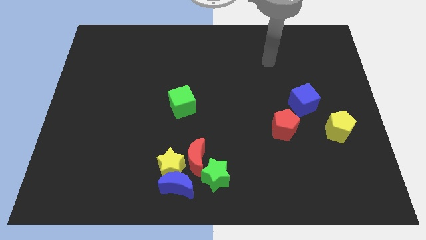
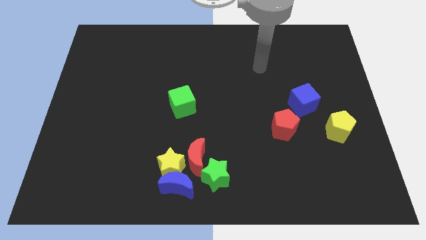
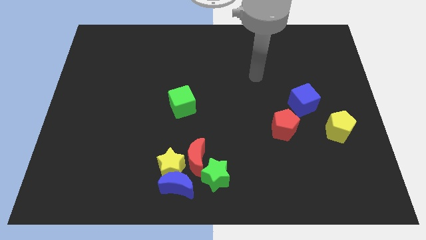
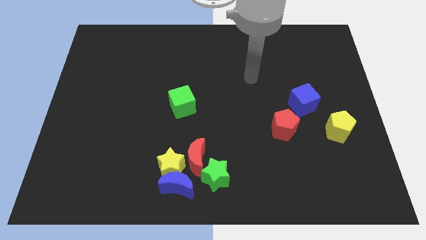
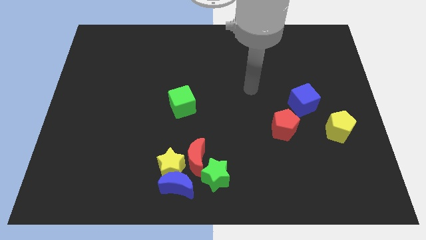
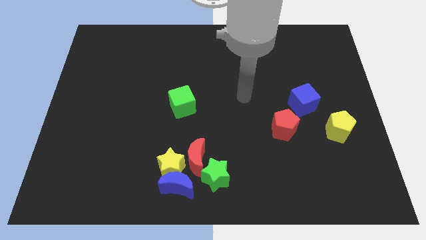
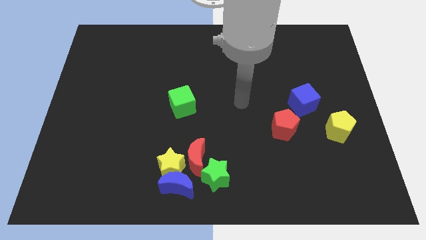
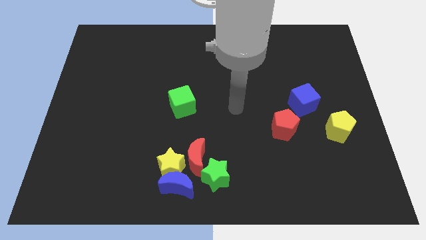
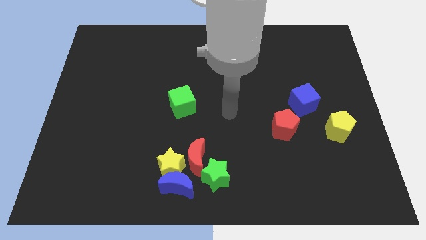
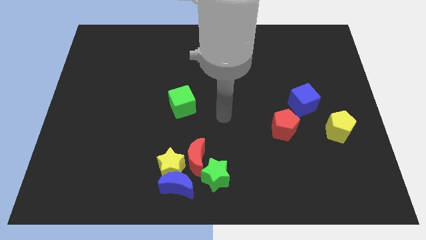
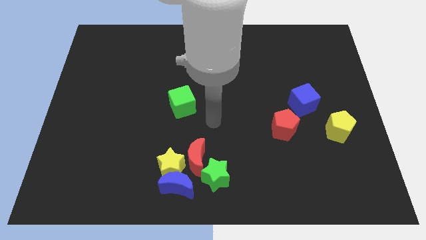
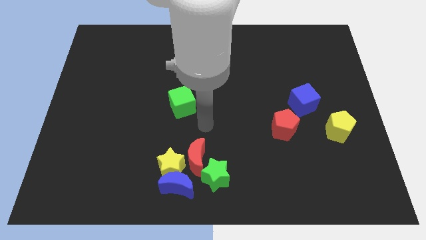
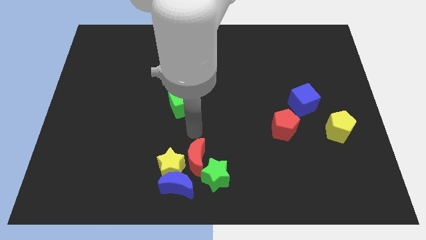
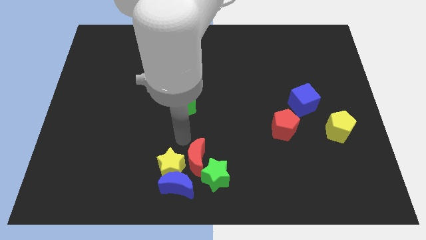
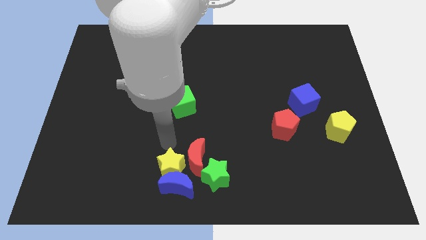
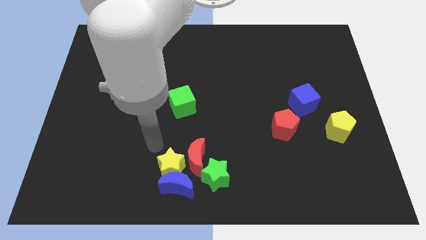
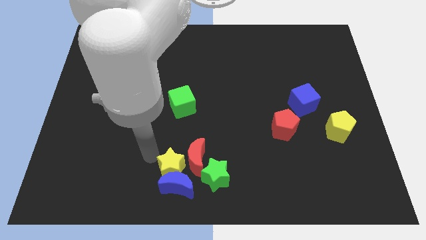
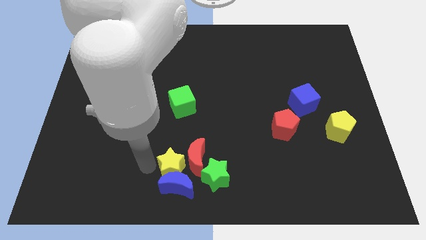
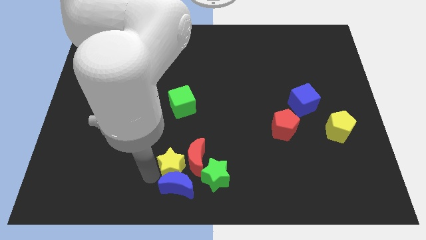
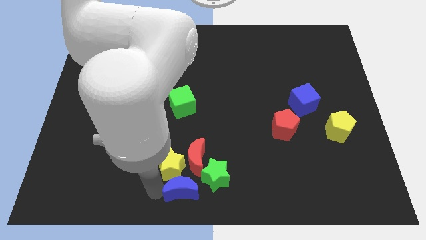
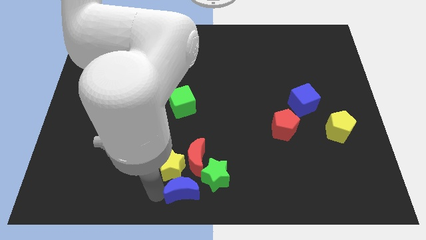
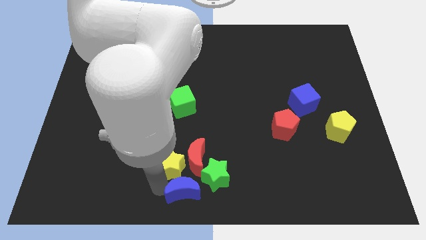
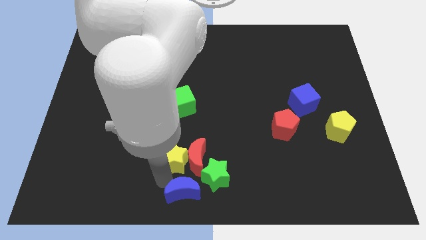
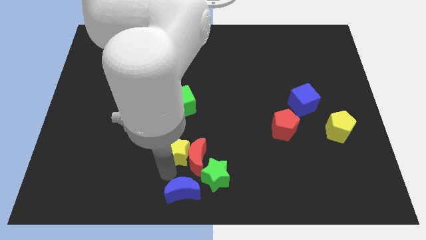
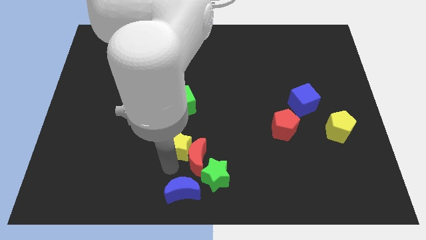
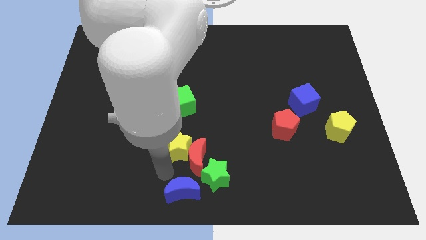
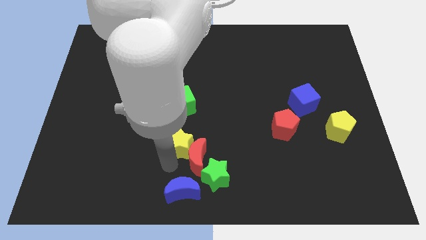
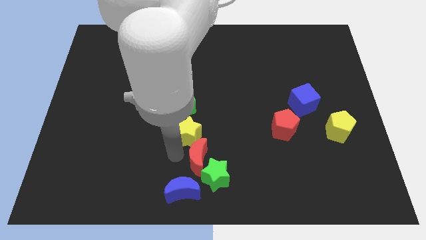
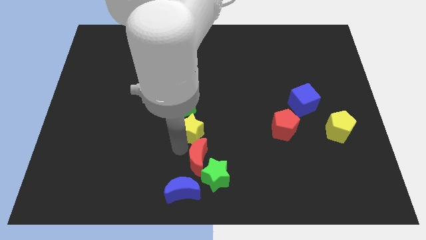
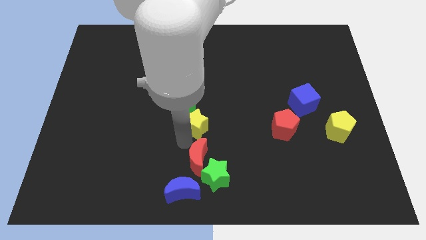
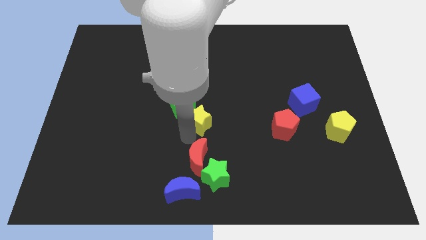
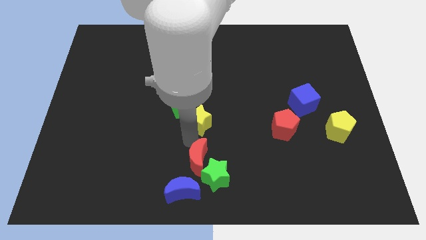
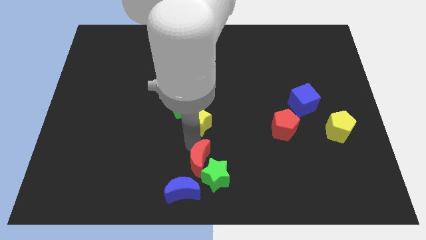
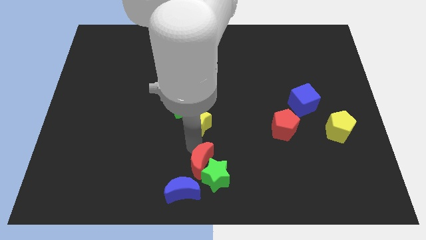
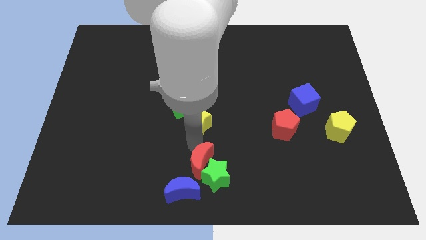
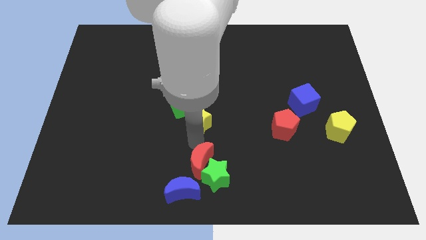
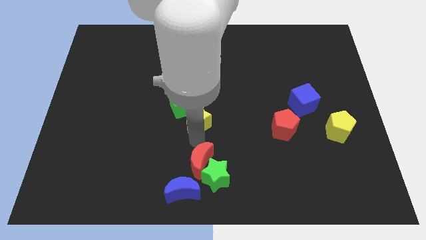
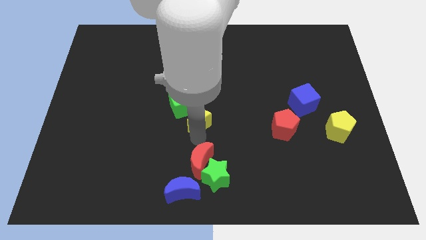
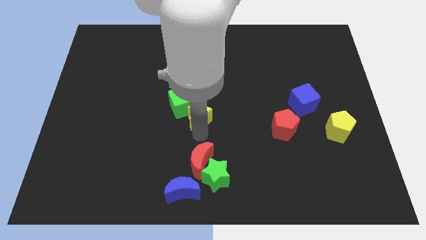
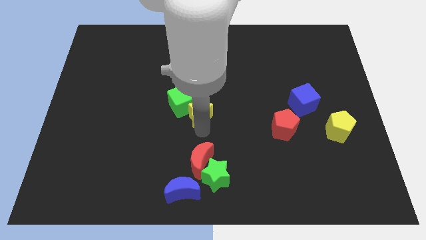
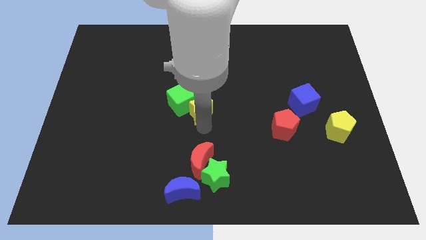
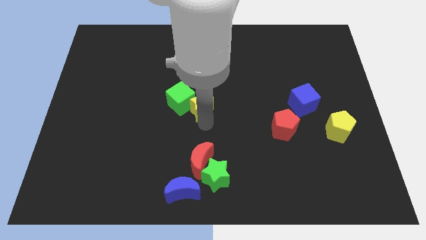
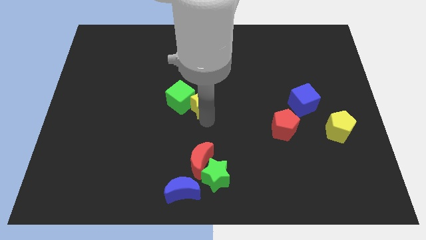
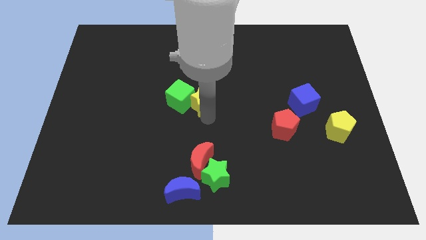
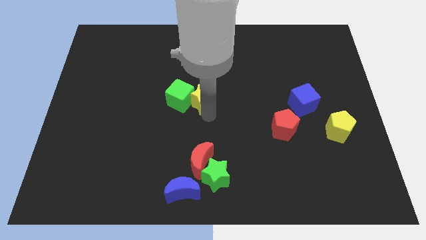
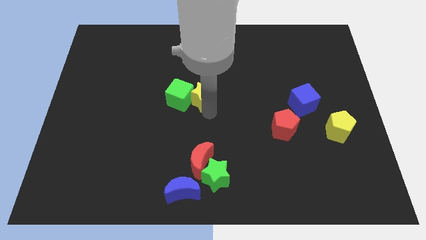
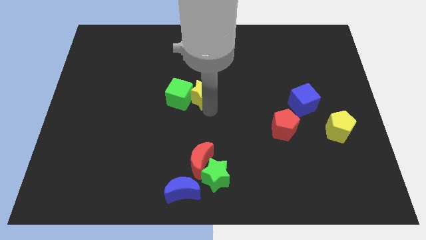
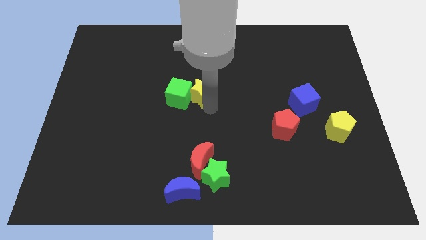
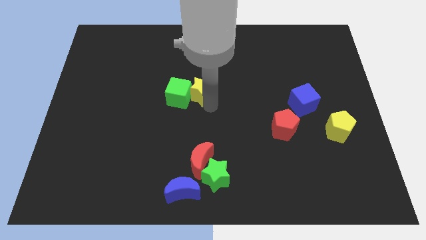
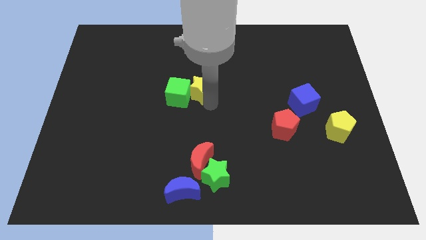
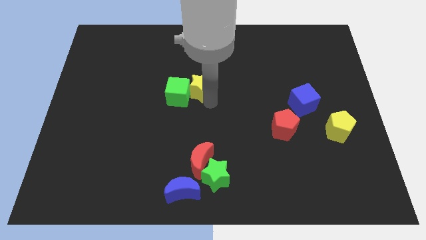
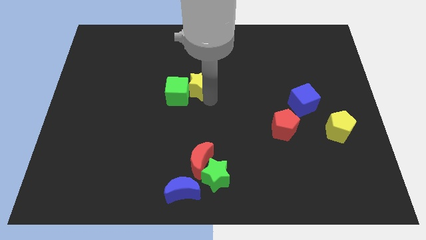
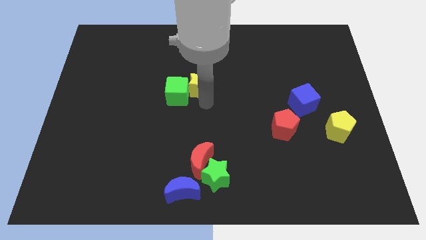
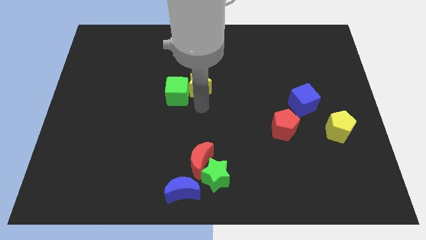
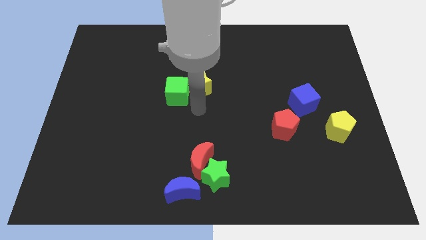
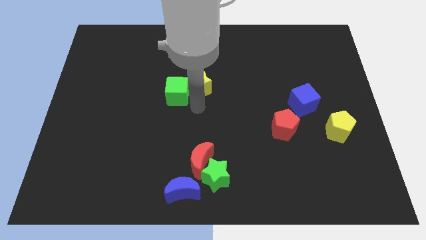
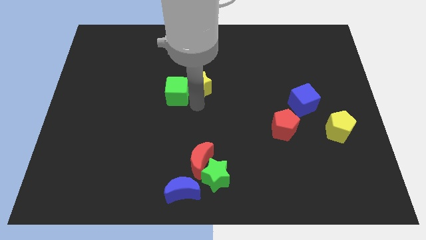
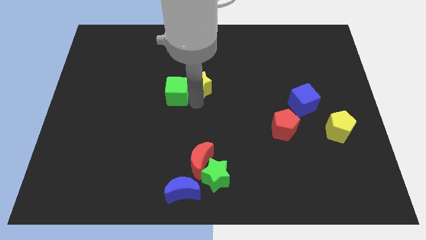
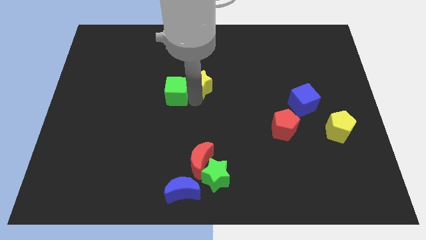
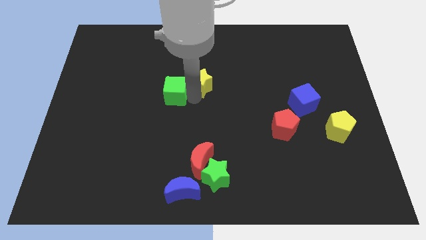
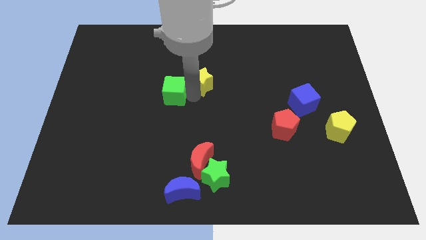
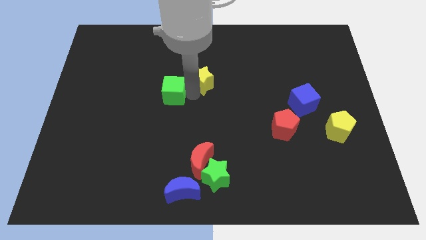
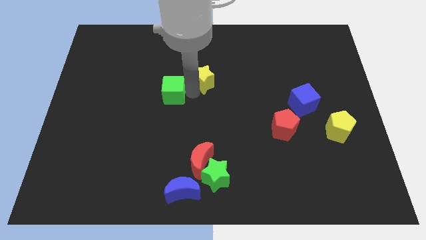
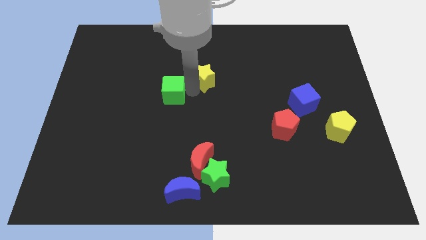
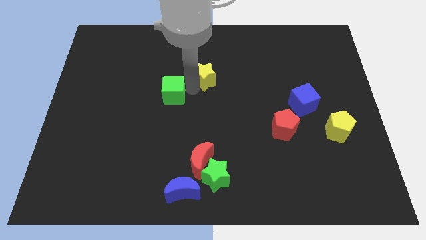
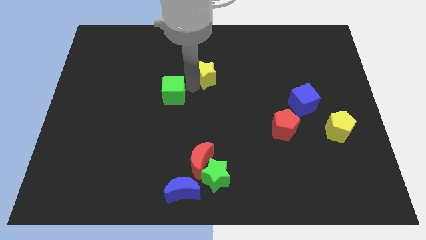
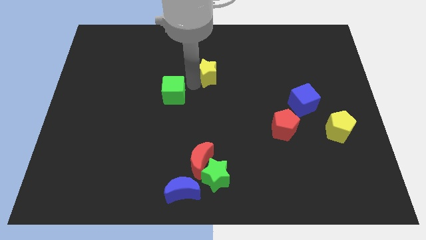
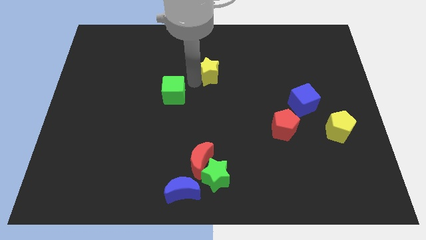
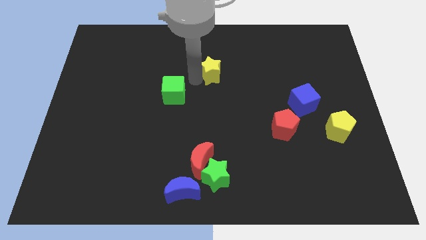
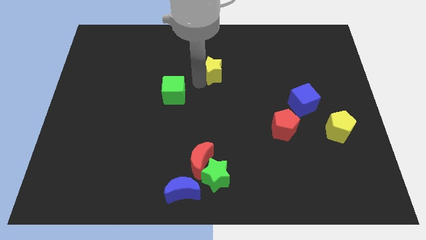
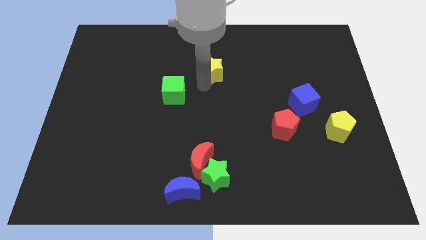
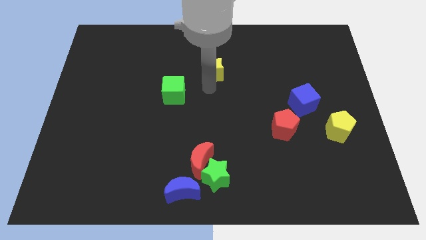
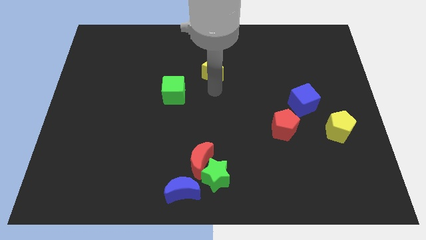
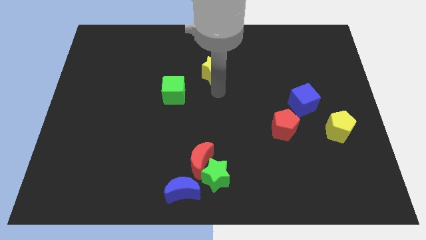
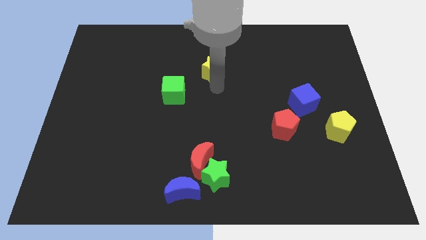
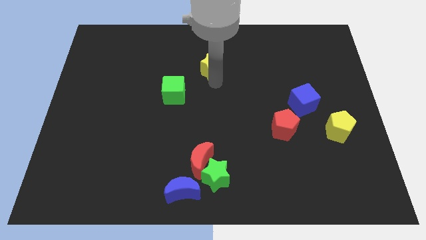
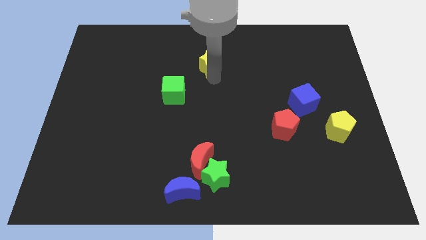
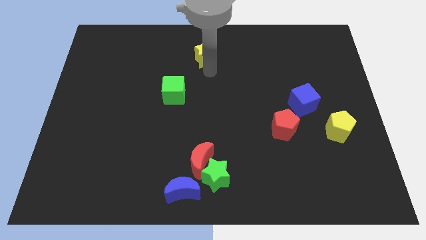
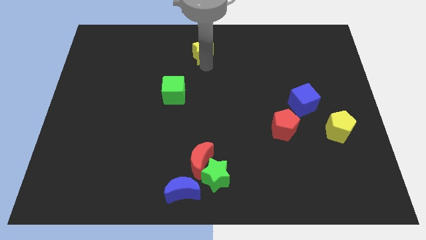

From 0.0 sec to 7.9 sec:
push the yellow star to the top
